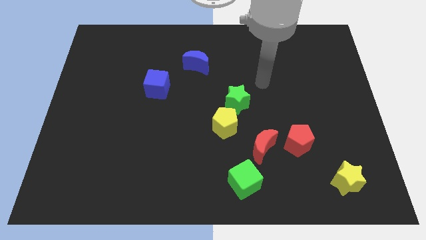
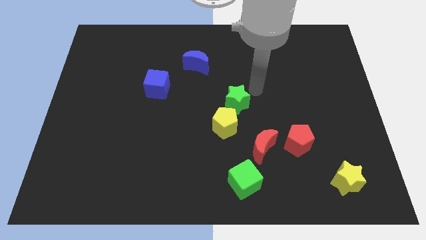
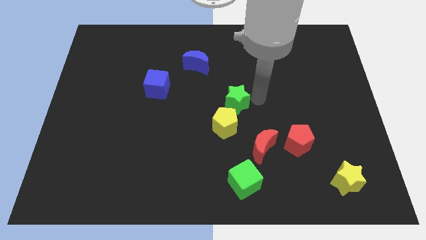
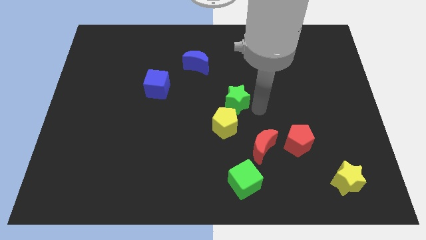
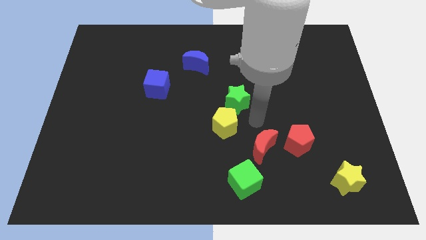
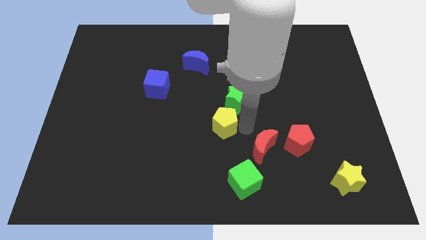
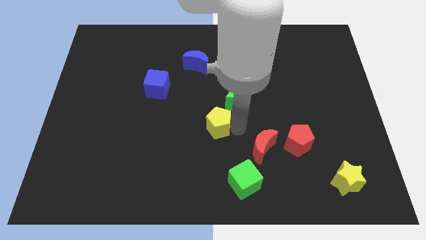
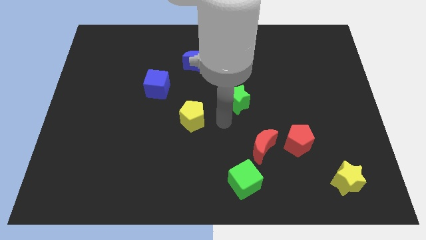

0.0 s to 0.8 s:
pull the green star apart from the yellow pentagon

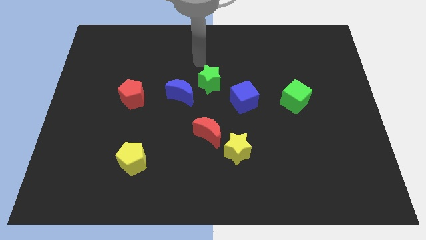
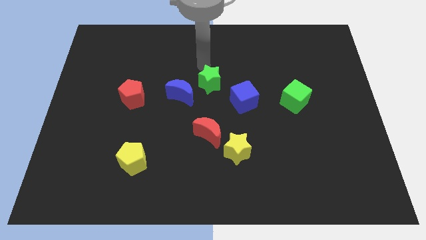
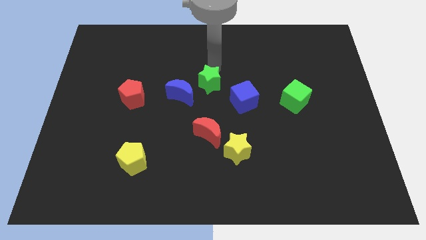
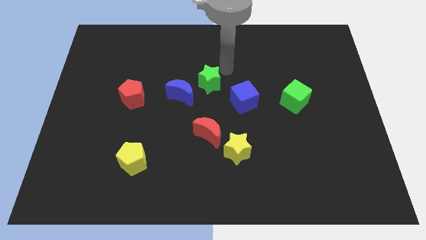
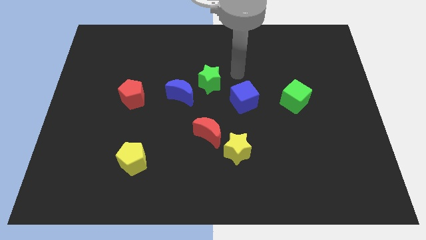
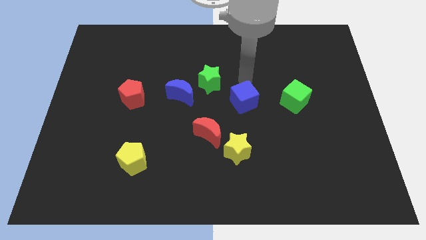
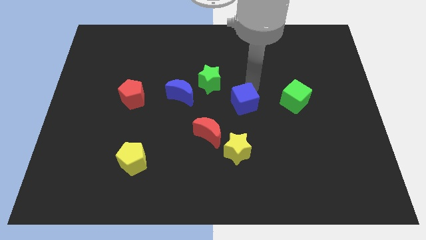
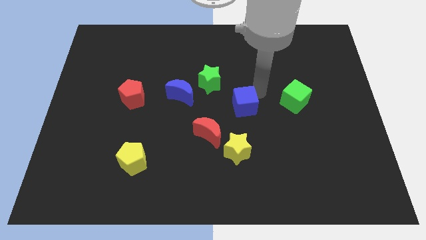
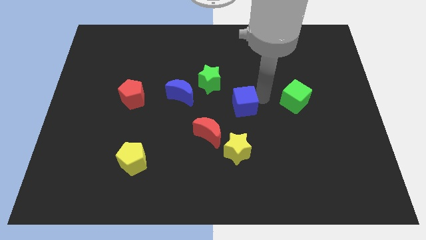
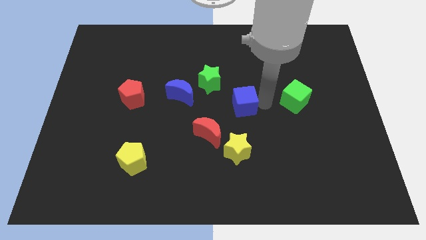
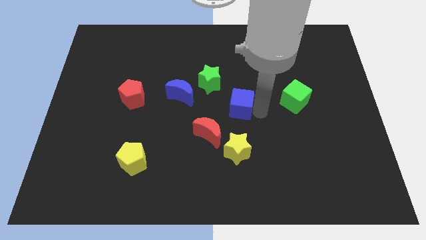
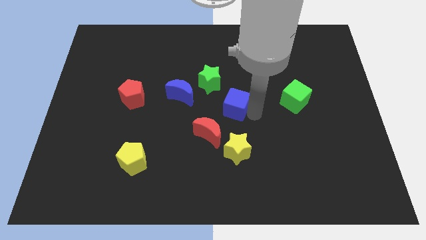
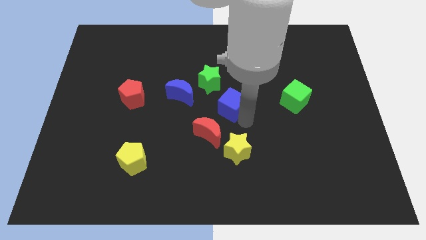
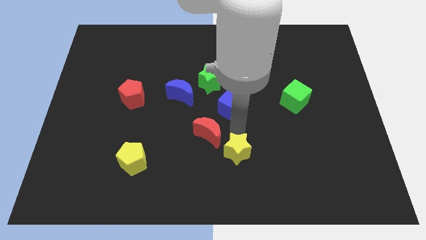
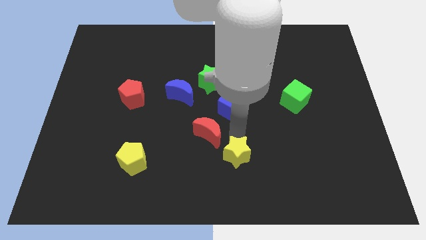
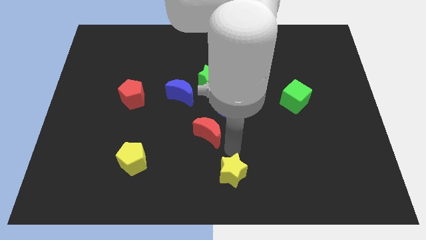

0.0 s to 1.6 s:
separate the red moon from the yellow star

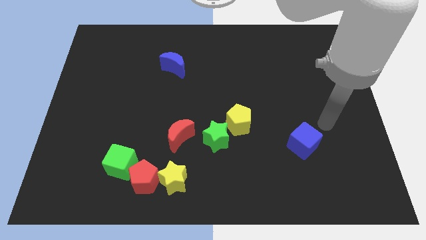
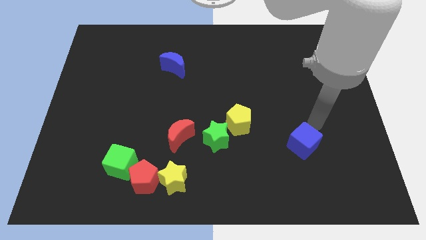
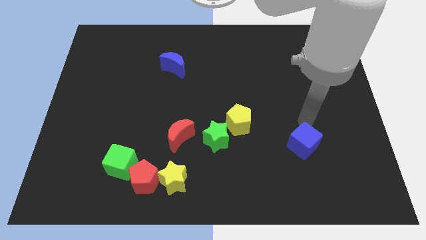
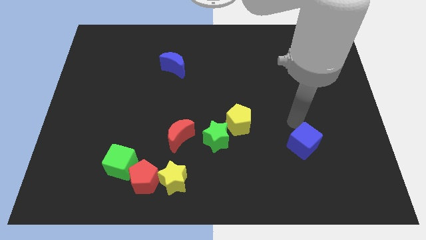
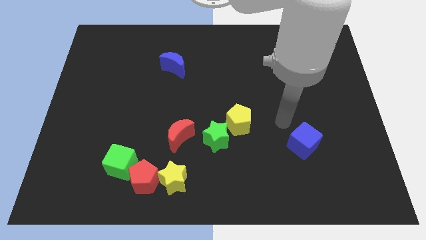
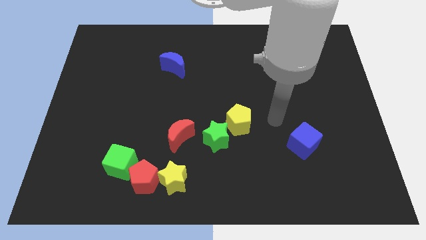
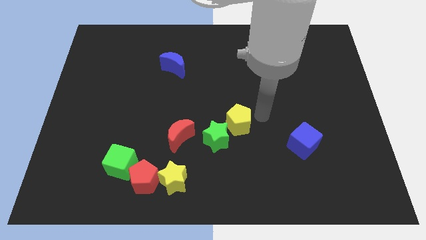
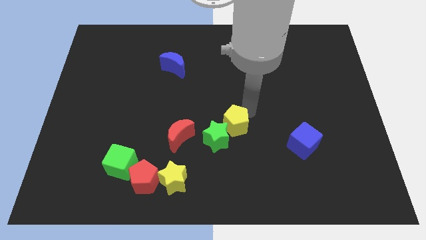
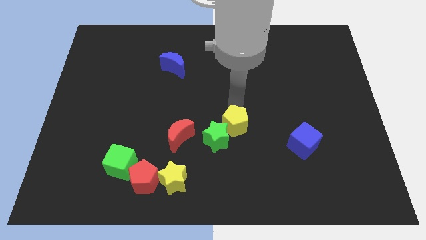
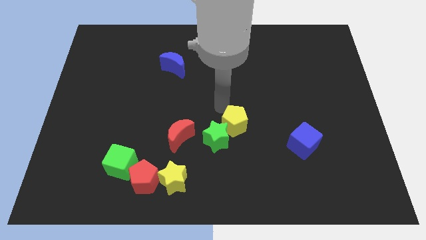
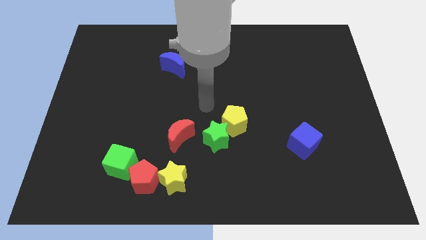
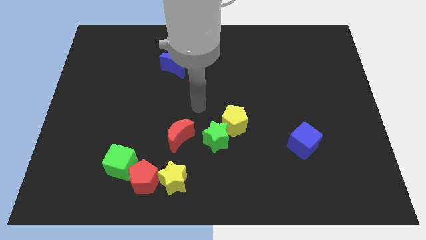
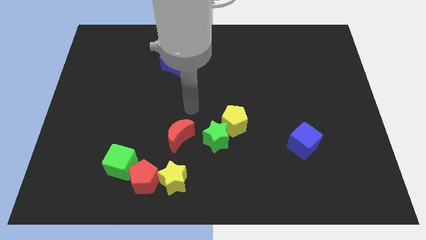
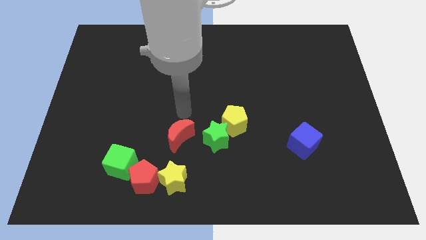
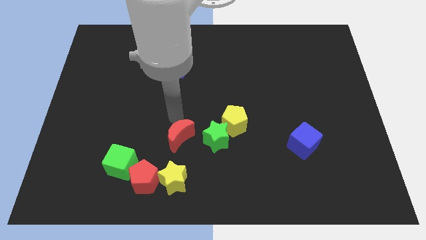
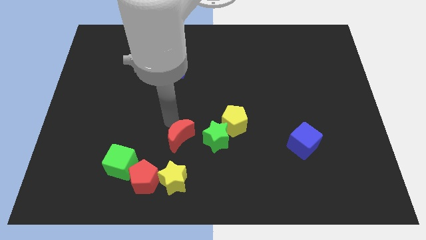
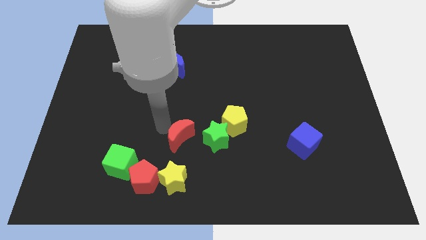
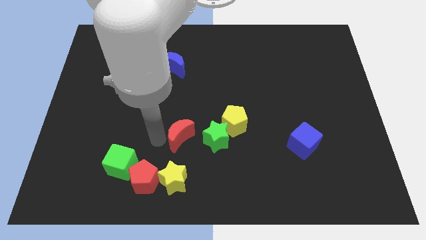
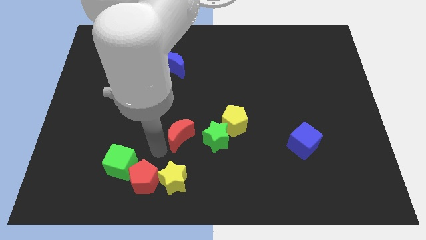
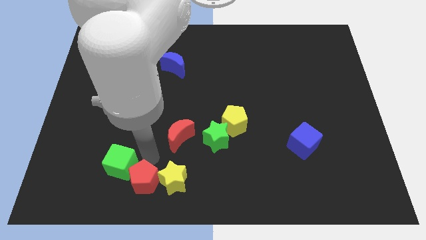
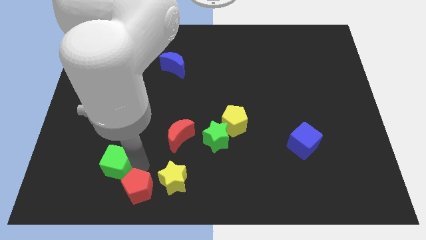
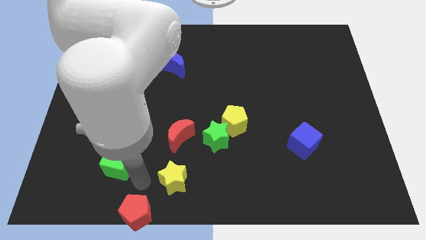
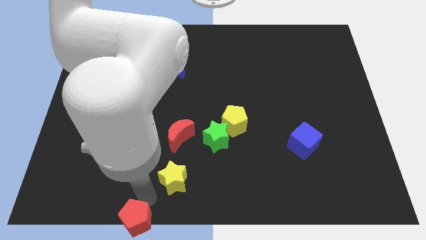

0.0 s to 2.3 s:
move the yellow star away from the red pentagon

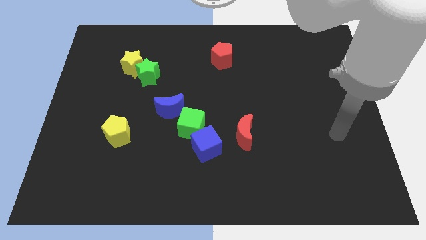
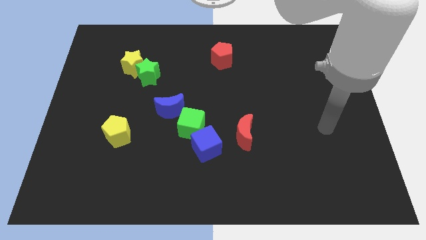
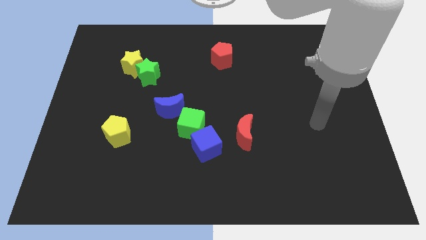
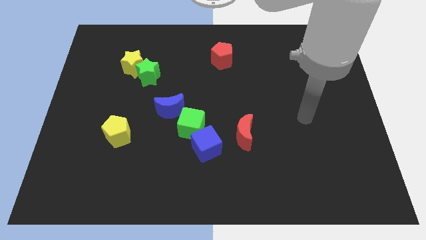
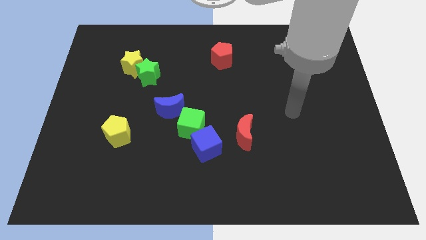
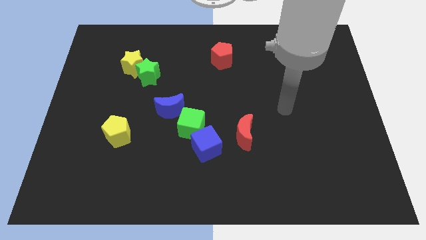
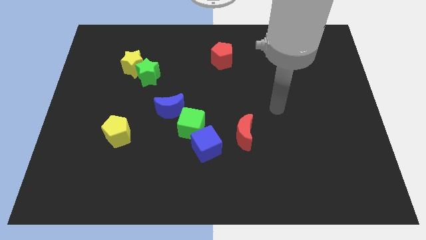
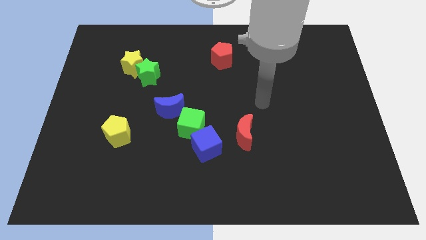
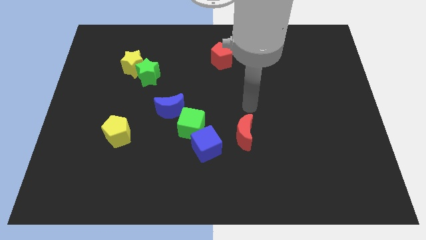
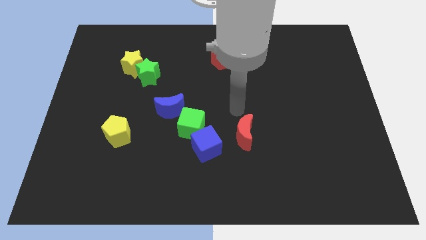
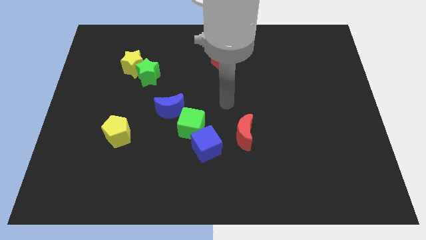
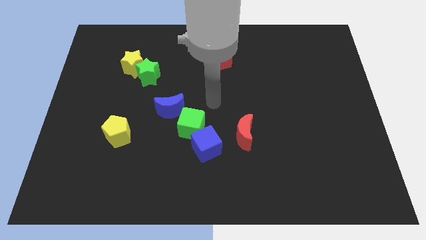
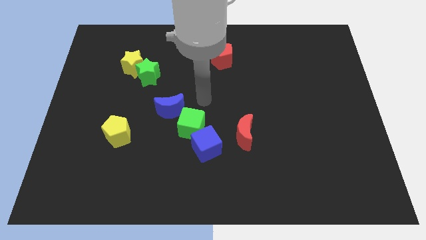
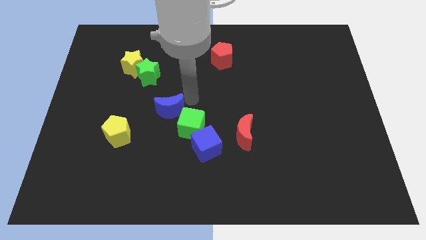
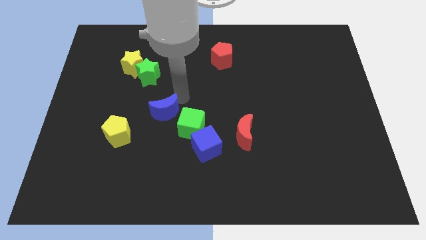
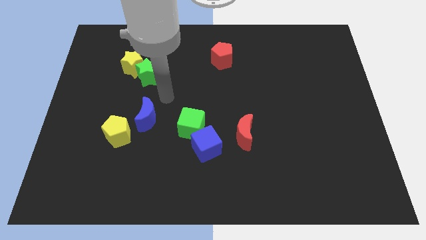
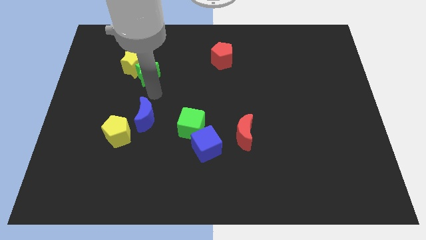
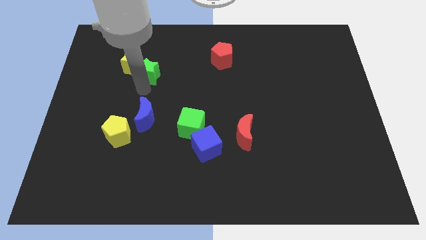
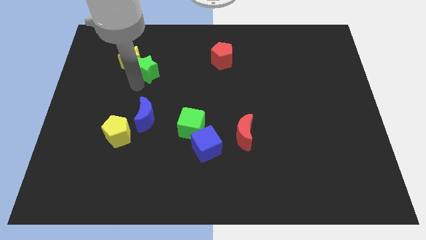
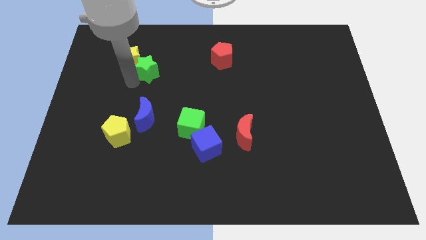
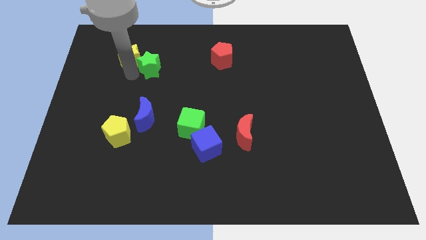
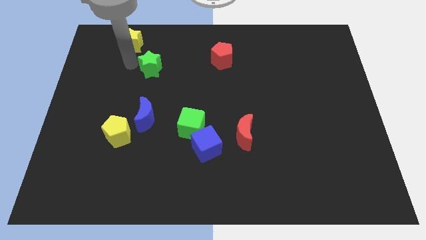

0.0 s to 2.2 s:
separate the green star from the yellow star

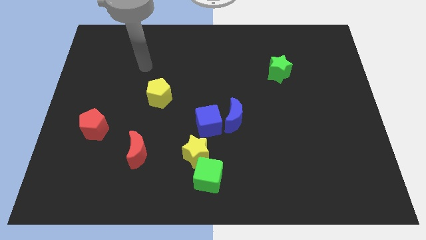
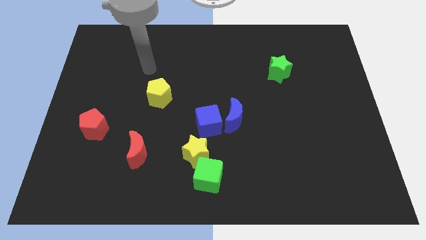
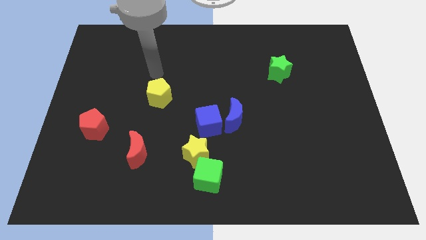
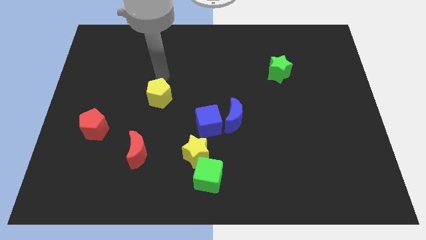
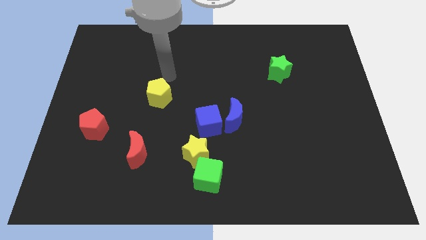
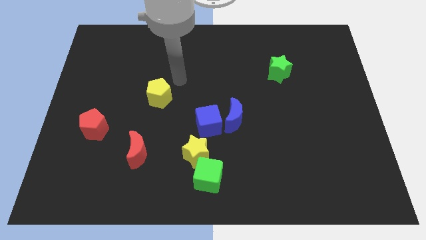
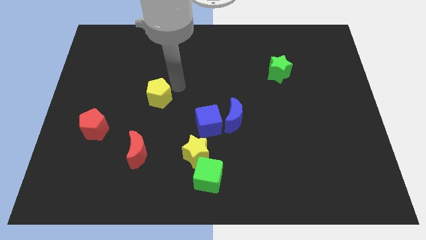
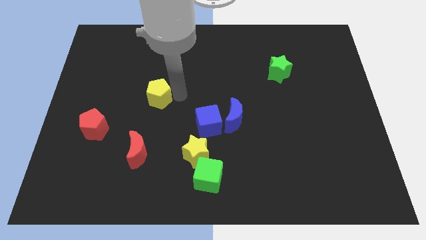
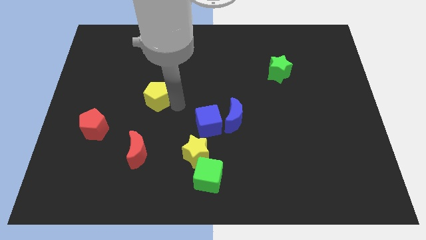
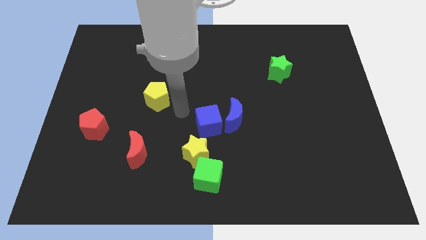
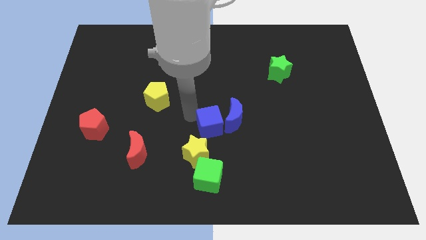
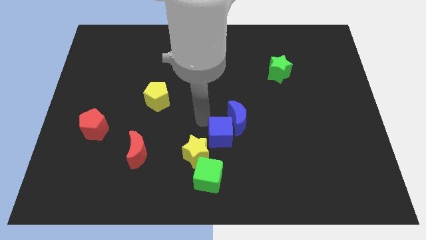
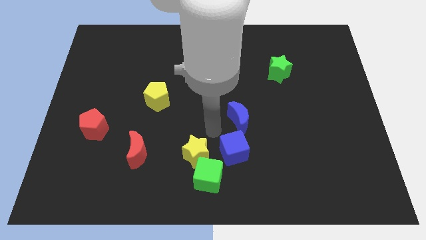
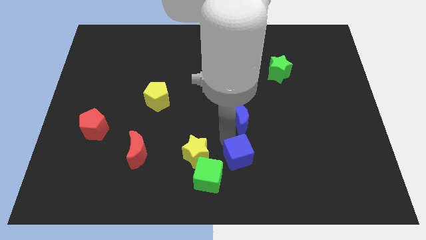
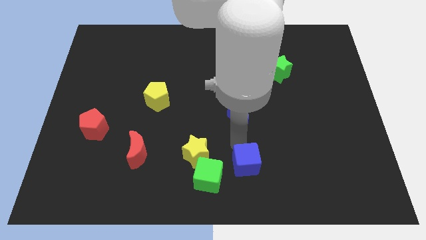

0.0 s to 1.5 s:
move the blue moon away from the blue cube

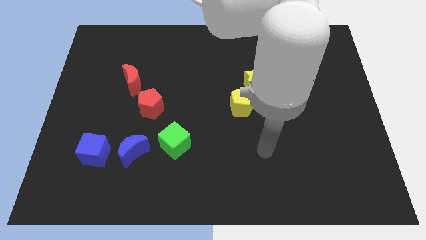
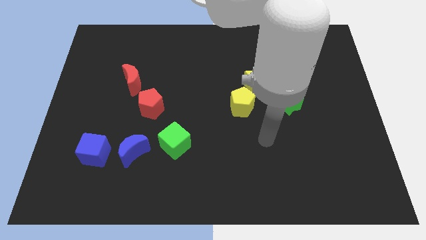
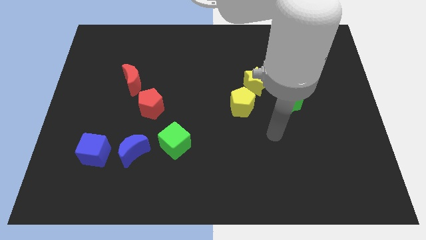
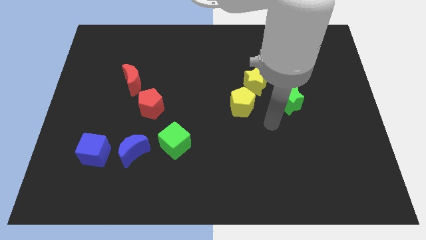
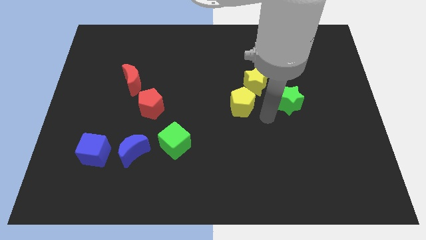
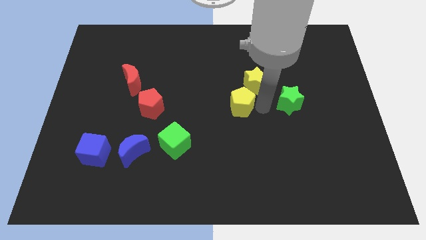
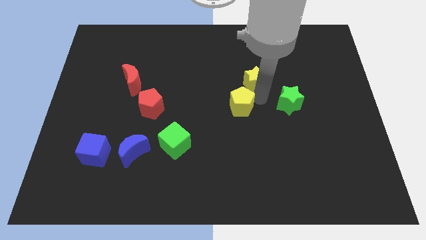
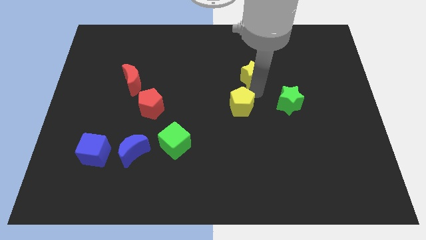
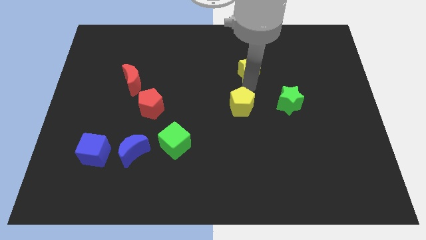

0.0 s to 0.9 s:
move the yellow pentagon away from the yellow star
